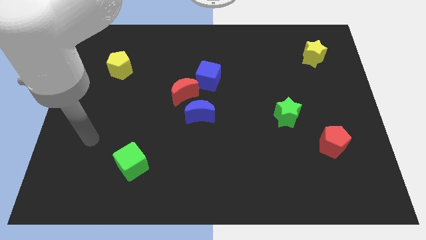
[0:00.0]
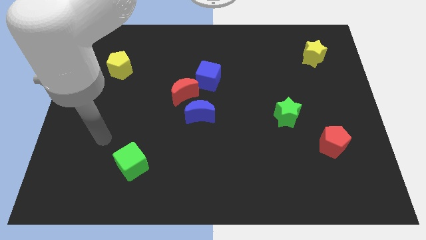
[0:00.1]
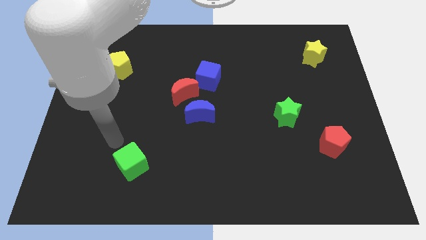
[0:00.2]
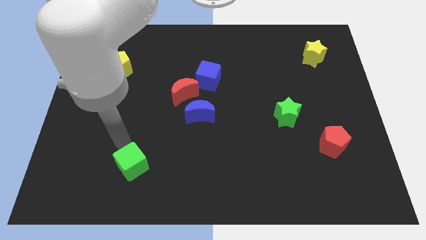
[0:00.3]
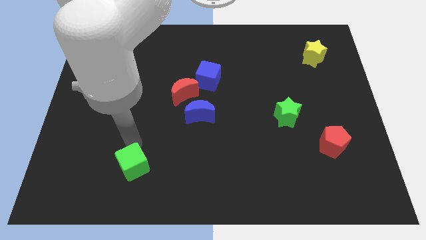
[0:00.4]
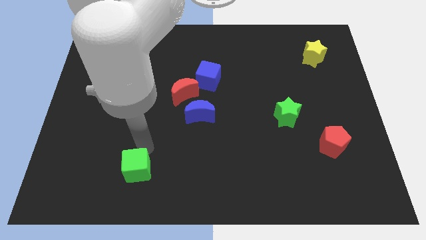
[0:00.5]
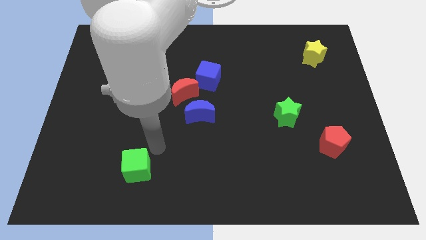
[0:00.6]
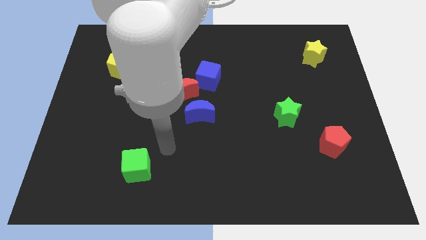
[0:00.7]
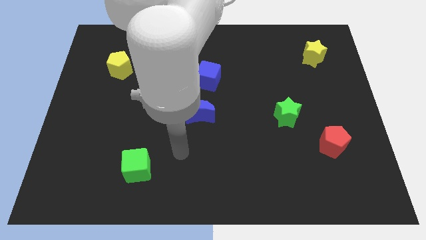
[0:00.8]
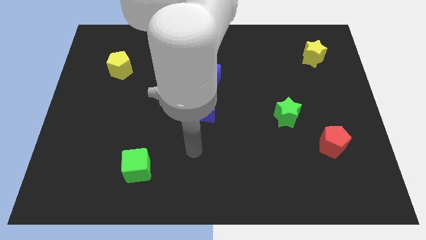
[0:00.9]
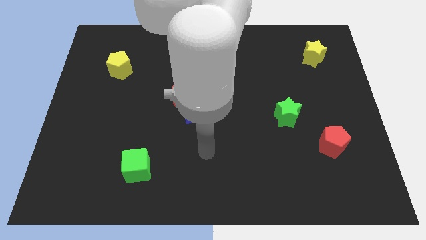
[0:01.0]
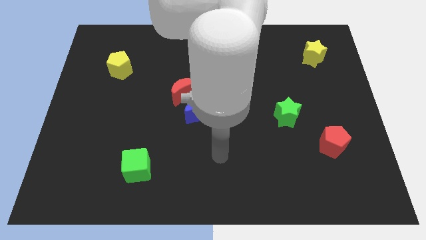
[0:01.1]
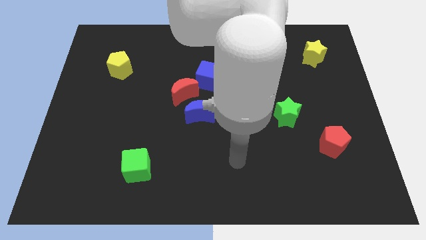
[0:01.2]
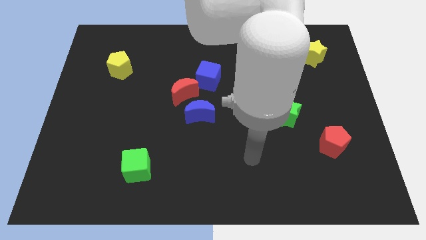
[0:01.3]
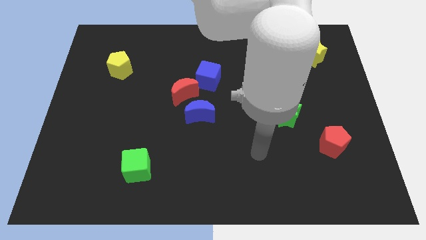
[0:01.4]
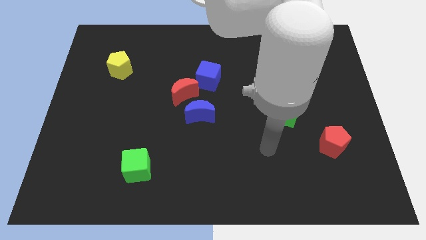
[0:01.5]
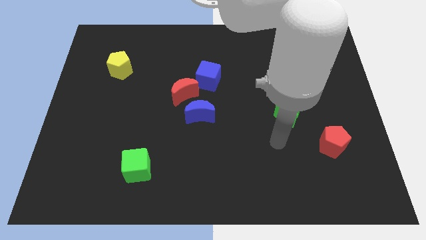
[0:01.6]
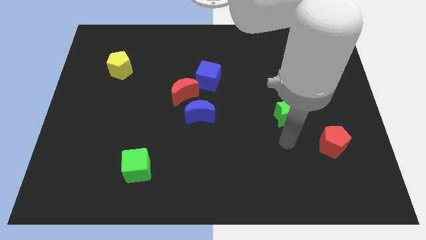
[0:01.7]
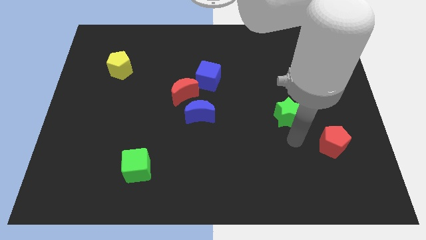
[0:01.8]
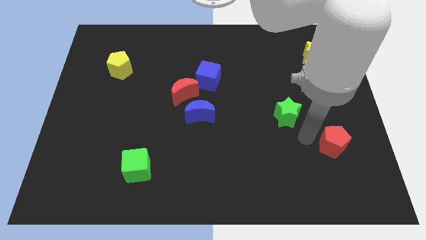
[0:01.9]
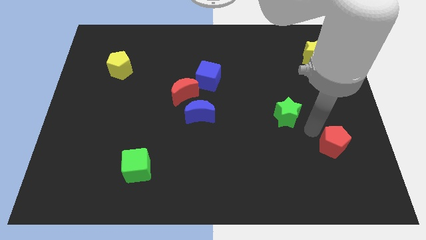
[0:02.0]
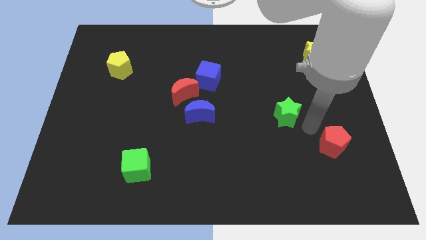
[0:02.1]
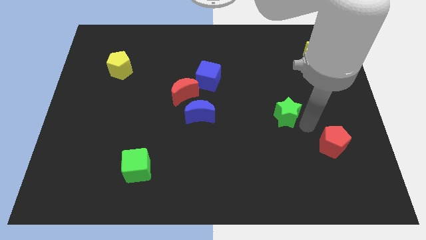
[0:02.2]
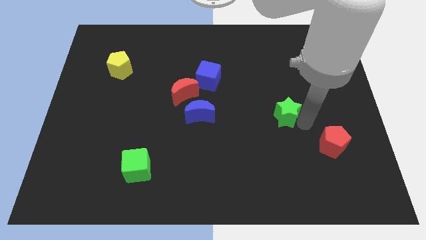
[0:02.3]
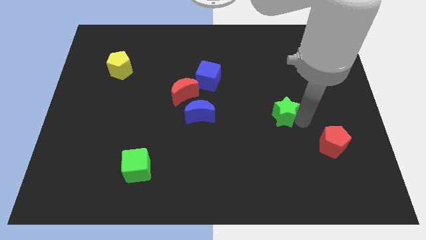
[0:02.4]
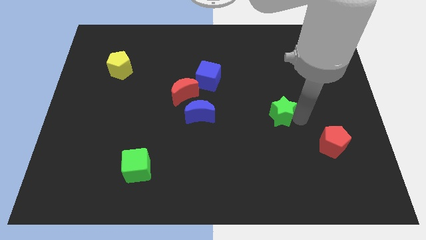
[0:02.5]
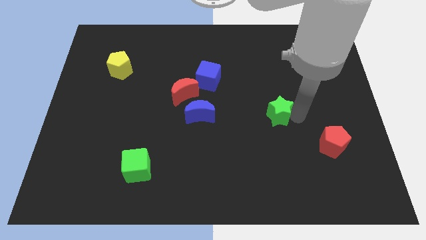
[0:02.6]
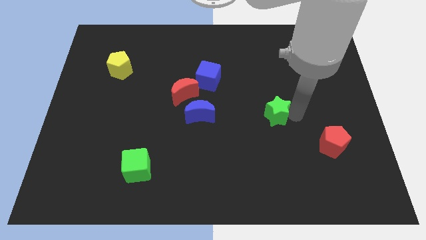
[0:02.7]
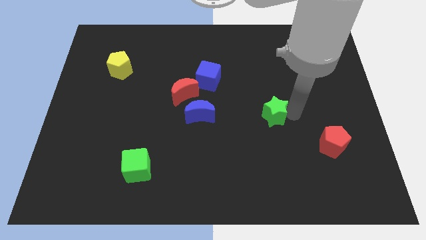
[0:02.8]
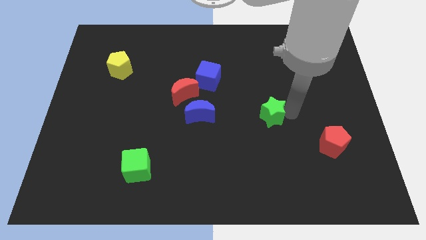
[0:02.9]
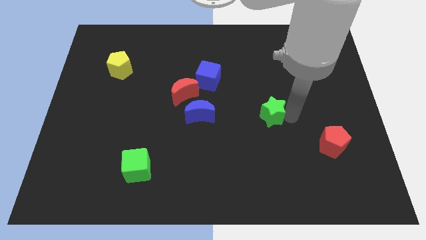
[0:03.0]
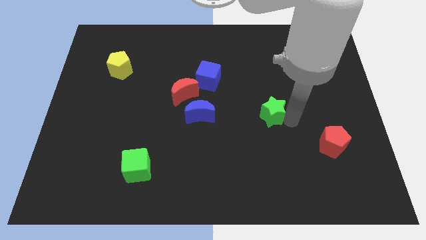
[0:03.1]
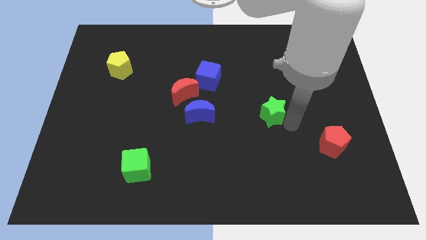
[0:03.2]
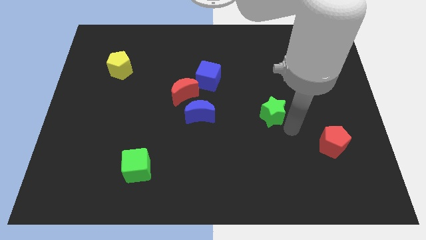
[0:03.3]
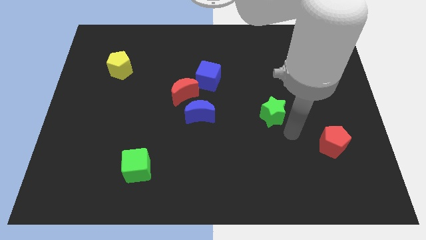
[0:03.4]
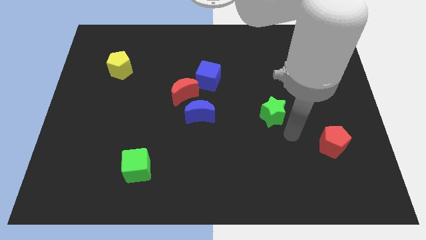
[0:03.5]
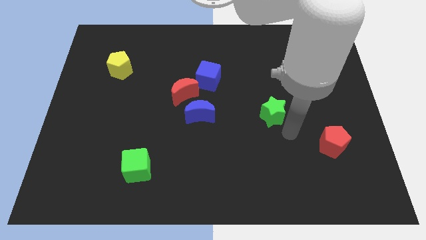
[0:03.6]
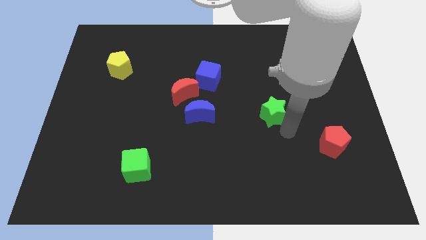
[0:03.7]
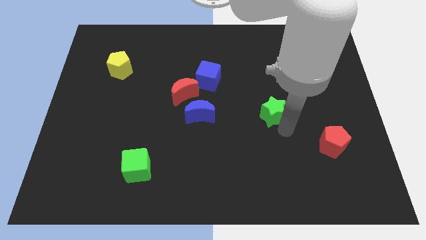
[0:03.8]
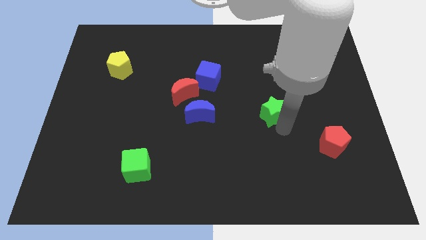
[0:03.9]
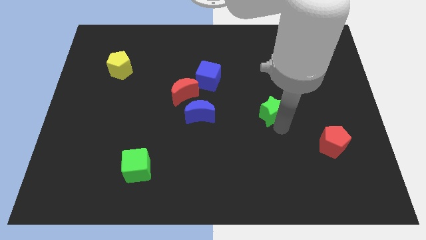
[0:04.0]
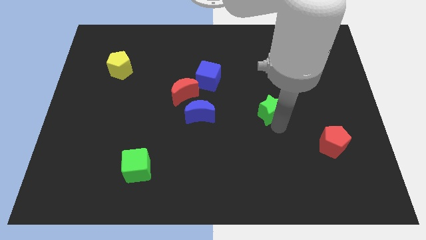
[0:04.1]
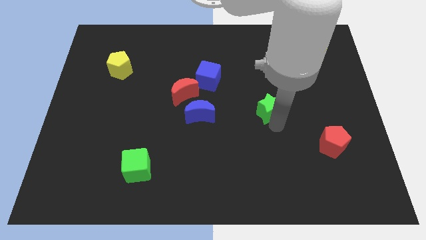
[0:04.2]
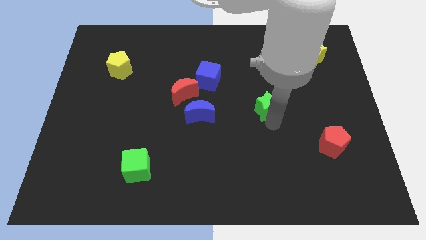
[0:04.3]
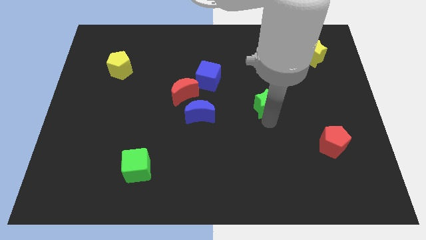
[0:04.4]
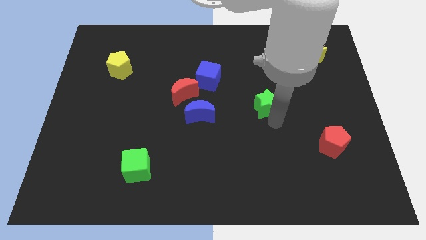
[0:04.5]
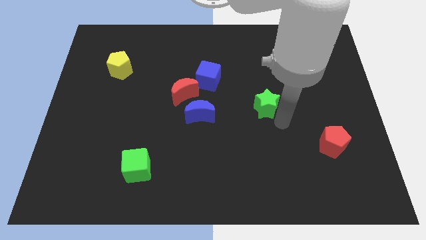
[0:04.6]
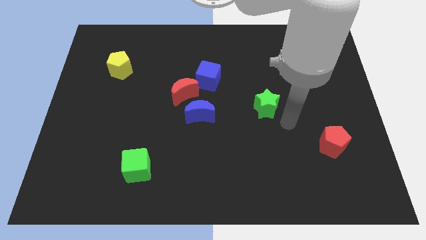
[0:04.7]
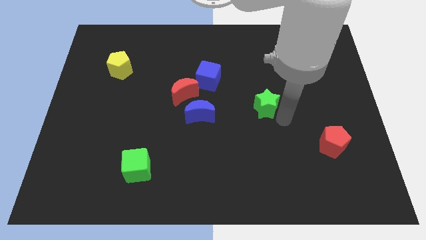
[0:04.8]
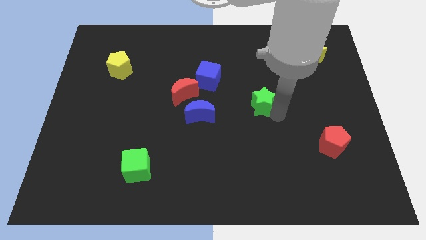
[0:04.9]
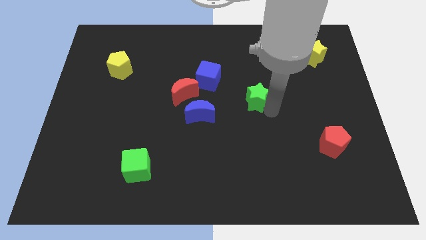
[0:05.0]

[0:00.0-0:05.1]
push the green star upwards and then left a little

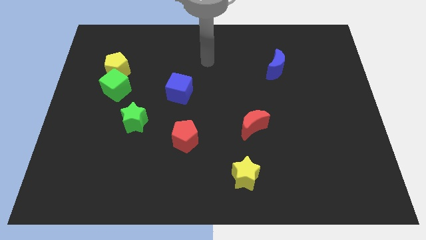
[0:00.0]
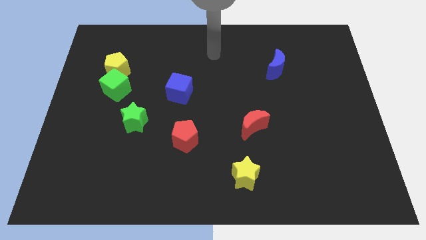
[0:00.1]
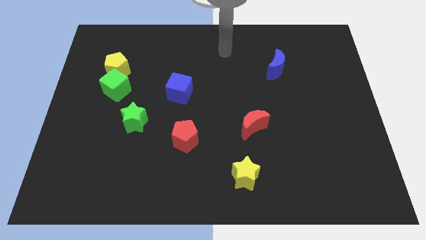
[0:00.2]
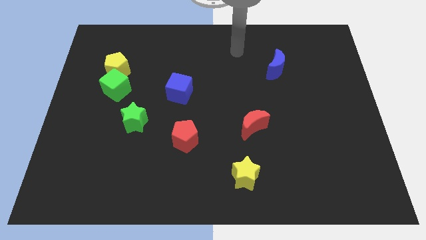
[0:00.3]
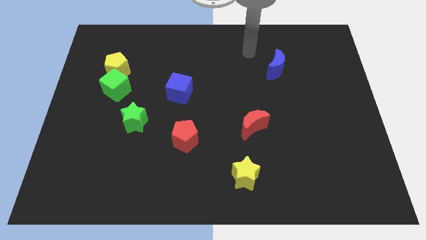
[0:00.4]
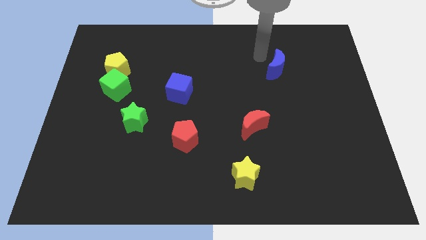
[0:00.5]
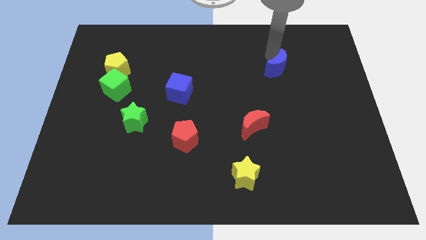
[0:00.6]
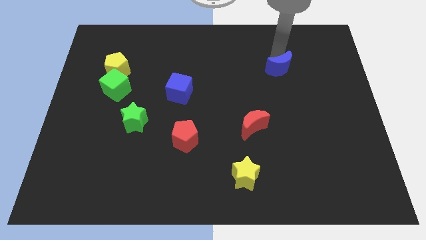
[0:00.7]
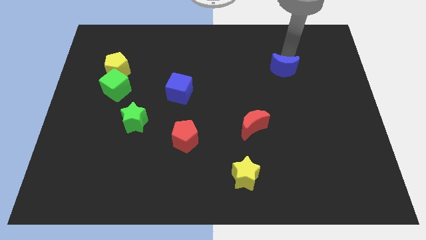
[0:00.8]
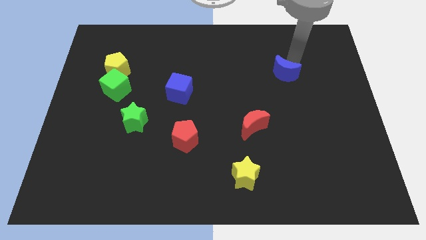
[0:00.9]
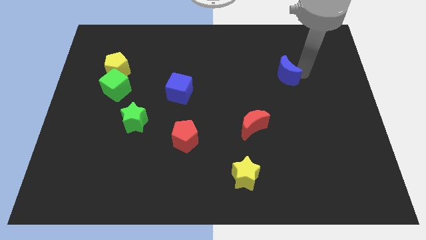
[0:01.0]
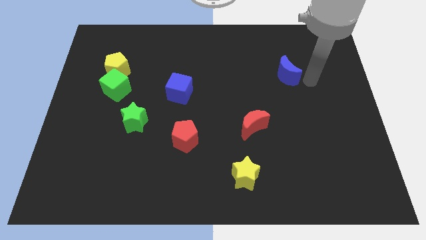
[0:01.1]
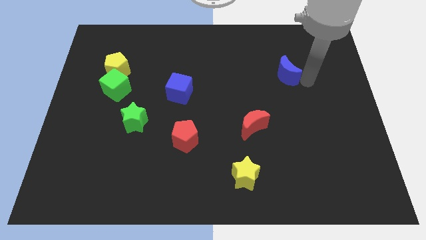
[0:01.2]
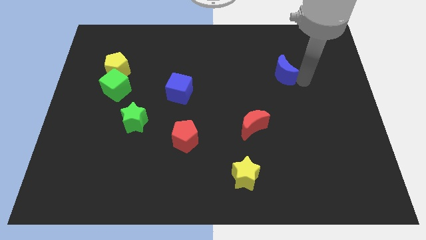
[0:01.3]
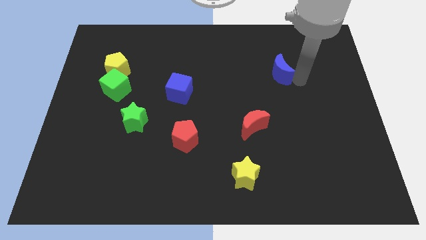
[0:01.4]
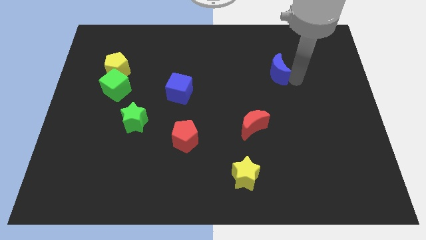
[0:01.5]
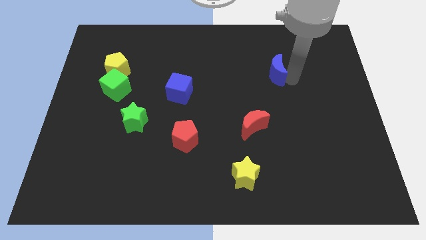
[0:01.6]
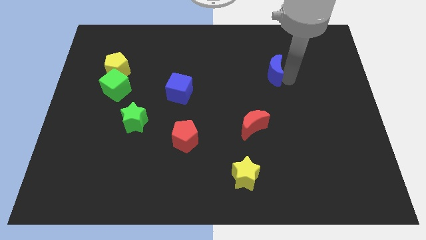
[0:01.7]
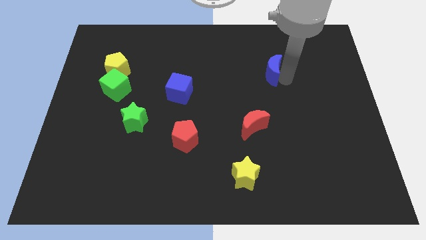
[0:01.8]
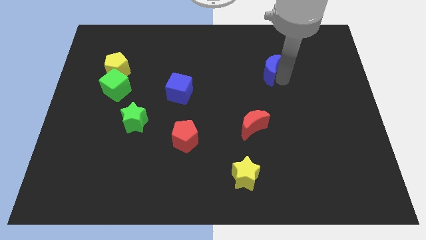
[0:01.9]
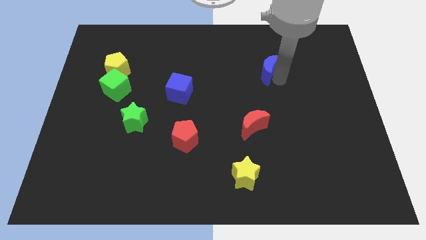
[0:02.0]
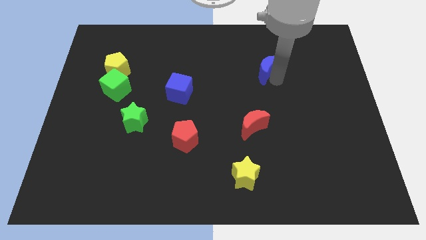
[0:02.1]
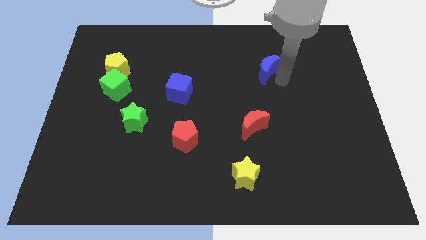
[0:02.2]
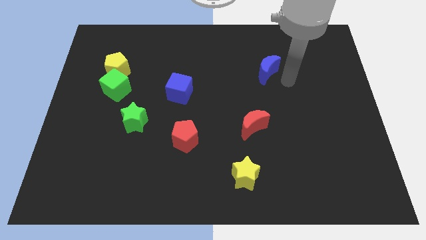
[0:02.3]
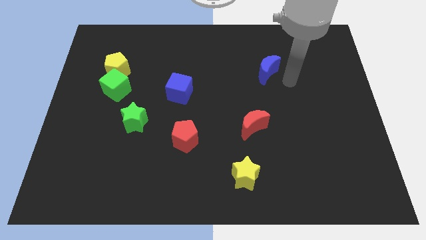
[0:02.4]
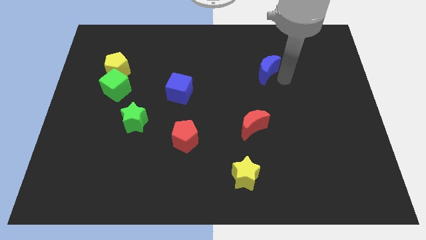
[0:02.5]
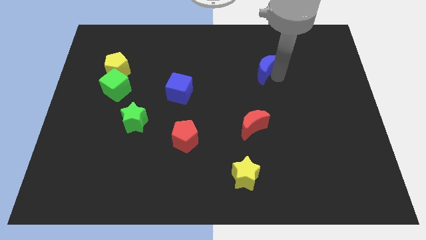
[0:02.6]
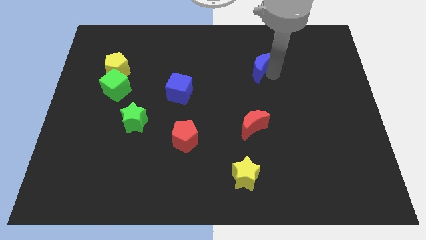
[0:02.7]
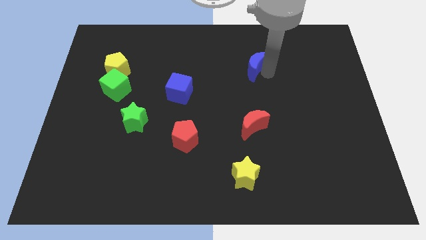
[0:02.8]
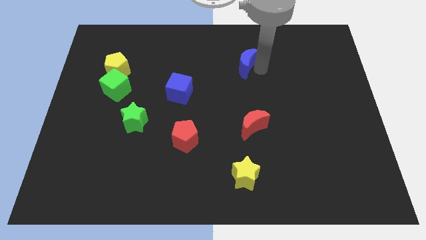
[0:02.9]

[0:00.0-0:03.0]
slightly move the blue moon to the left
